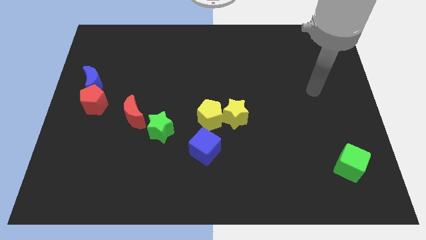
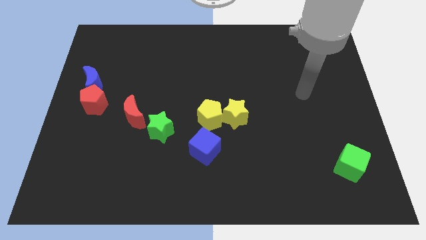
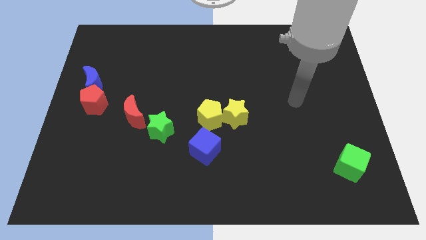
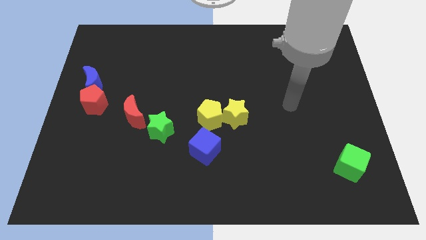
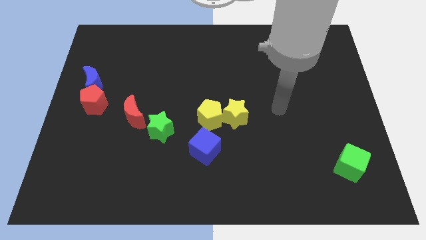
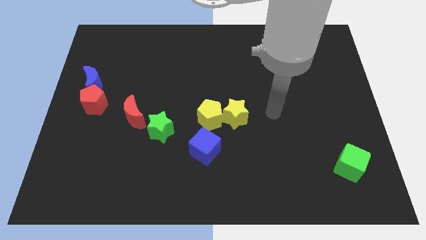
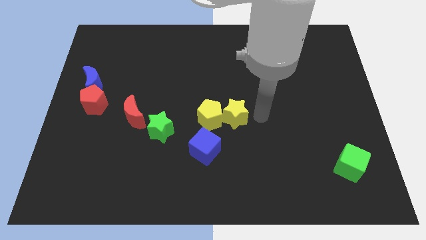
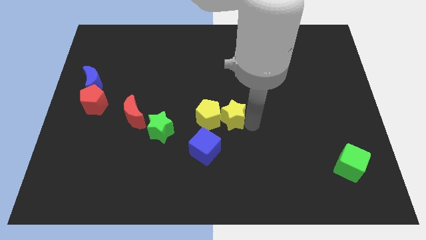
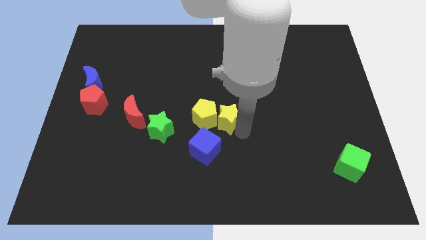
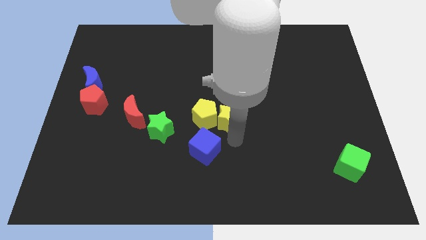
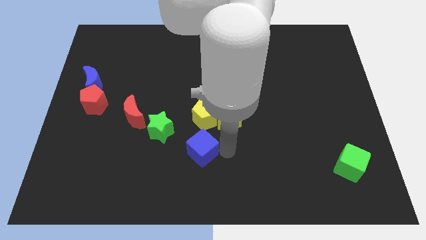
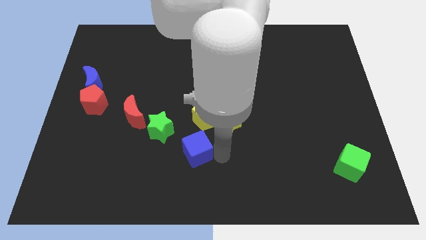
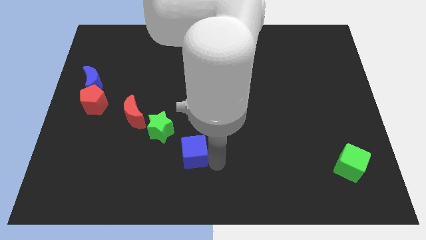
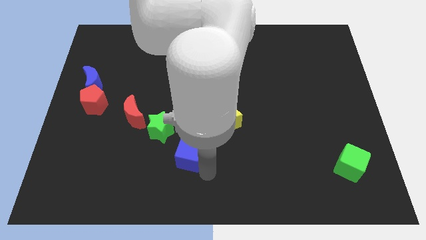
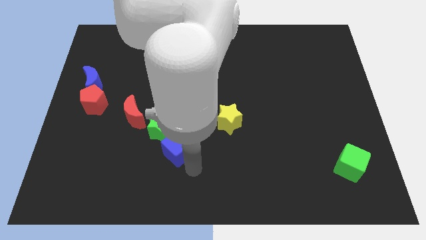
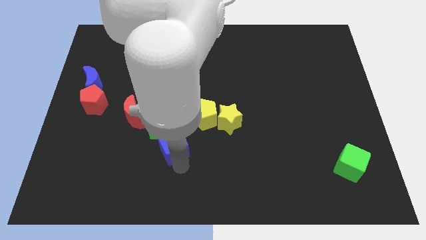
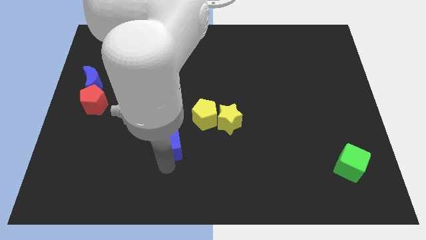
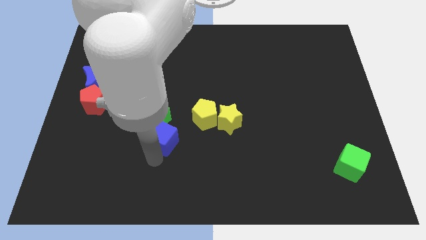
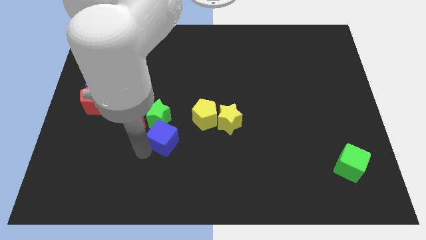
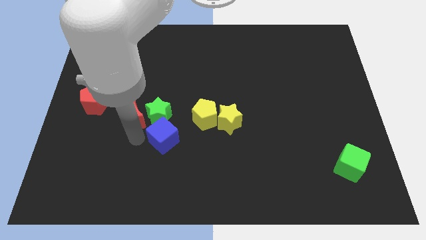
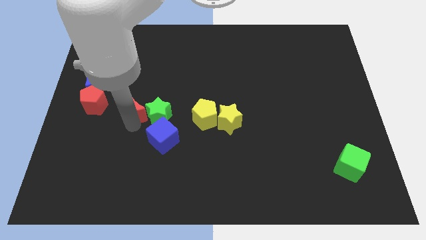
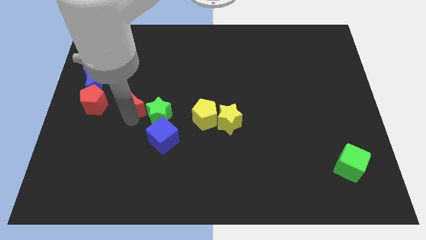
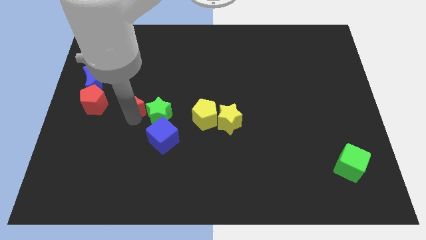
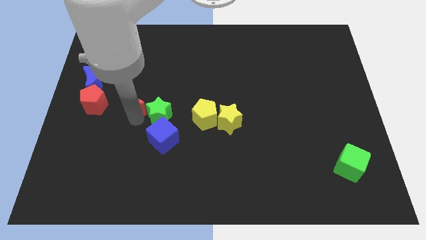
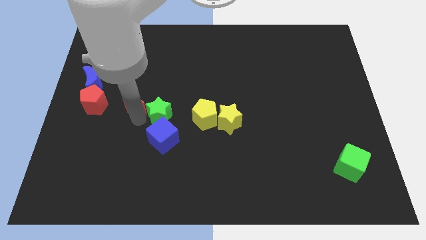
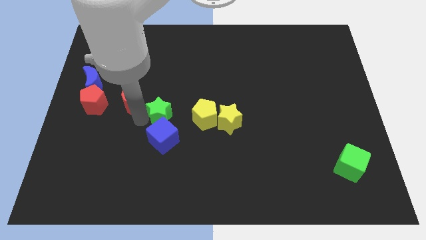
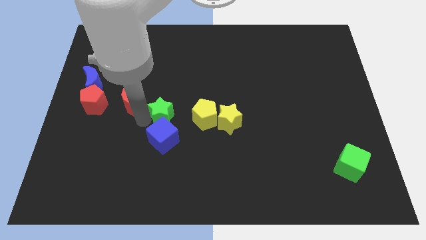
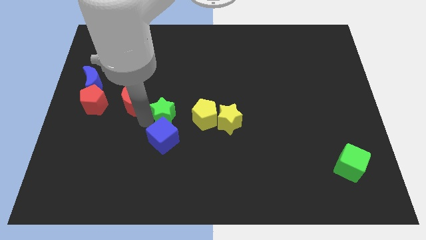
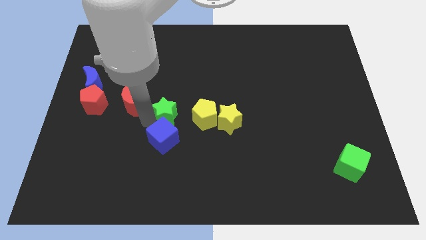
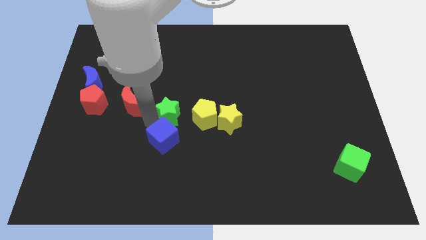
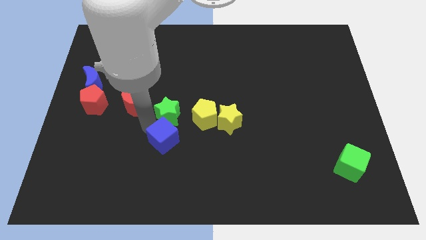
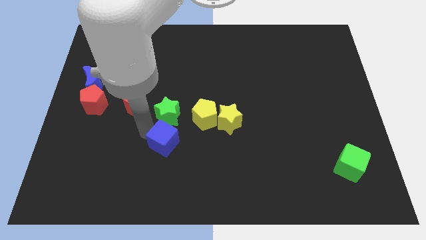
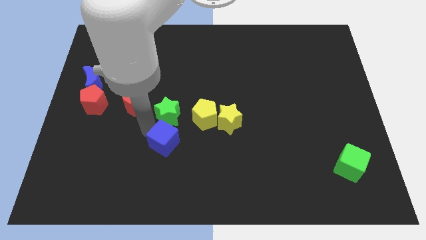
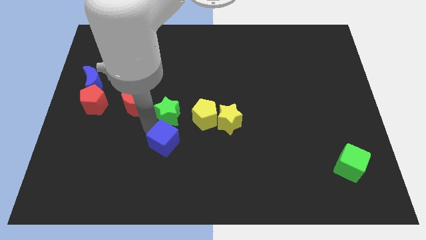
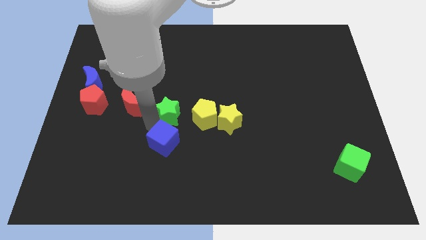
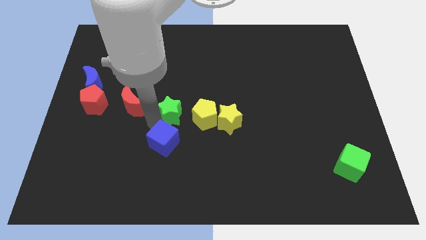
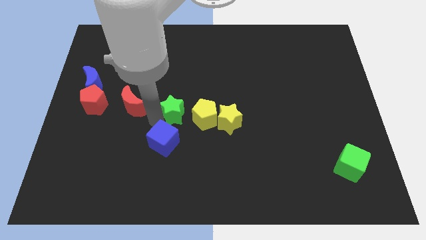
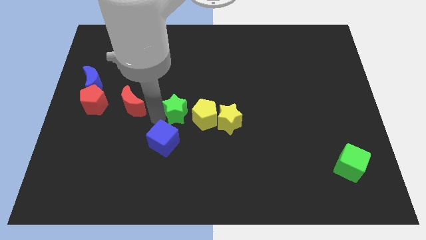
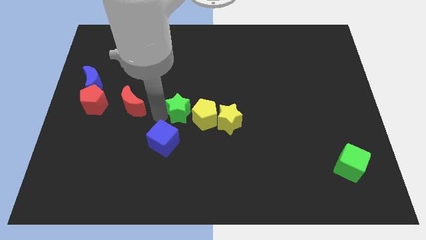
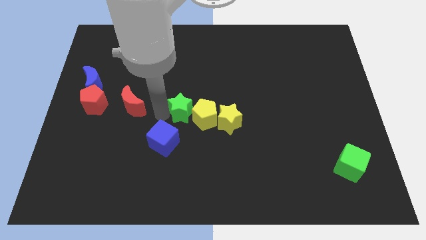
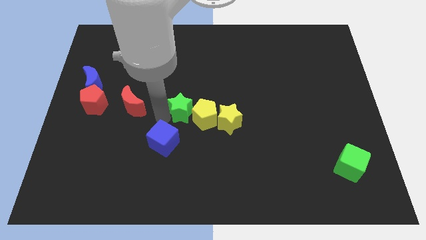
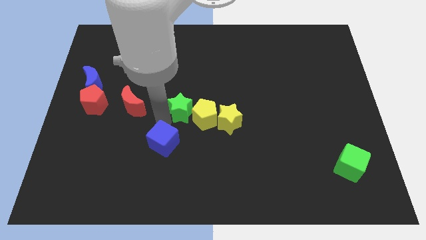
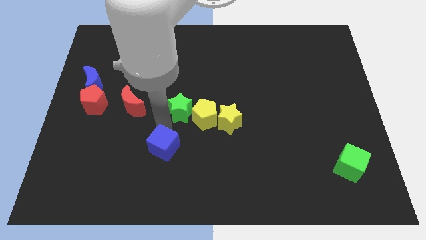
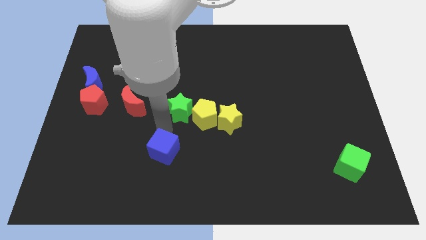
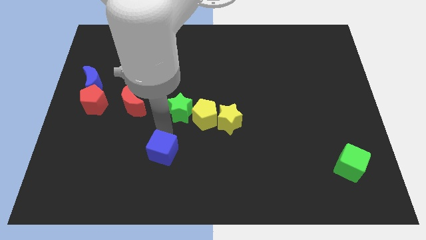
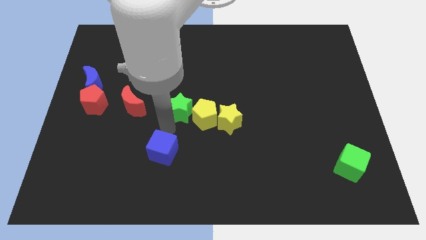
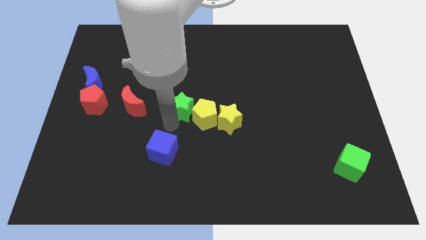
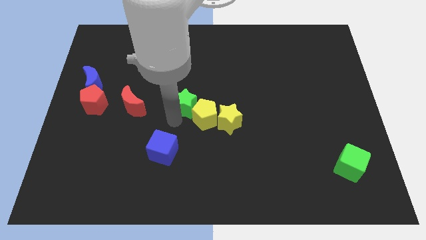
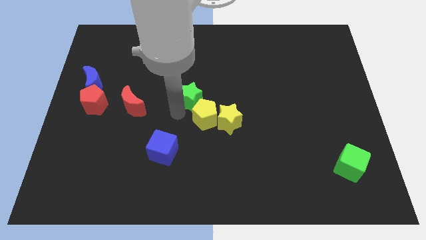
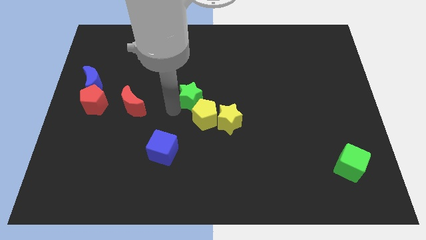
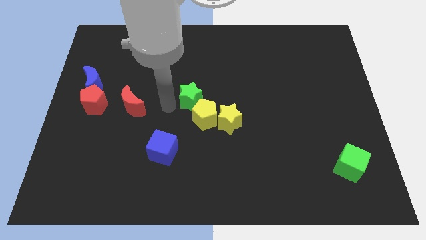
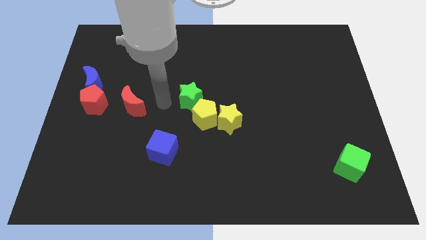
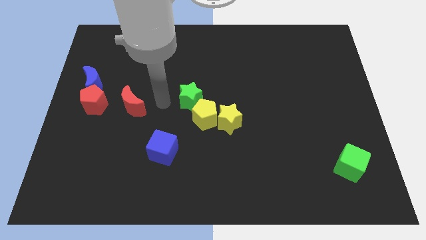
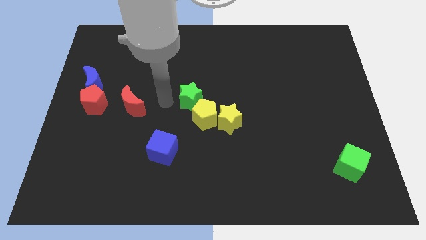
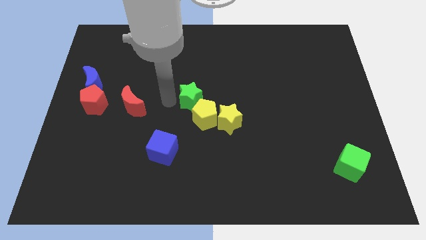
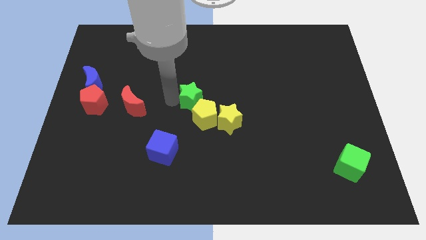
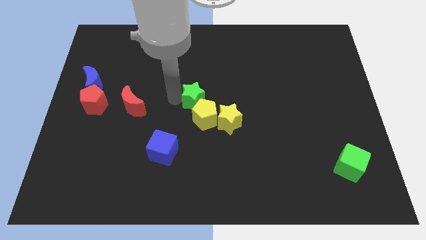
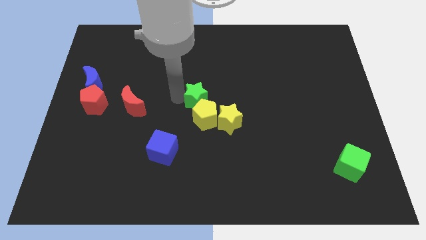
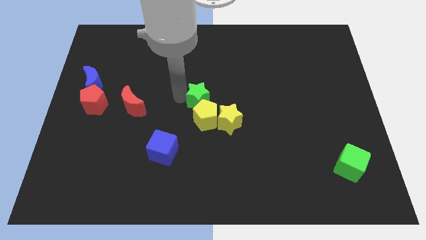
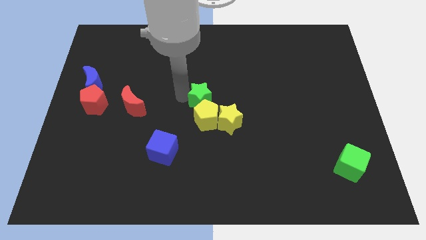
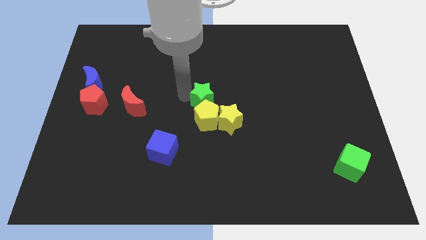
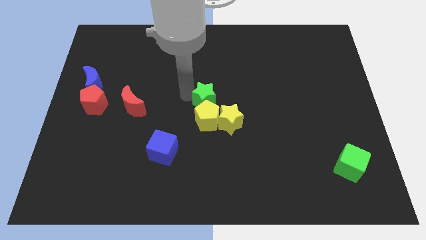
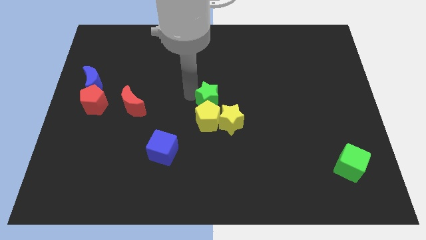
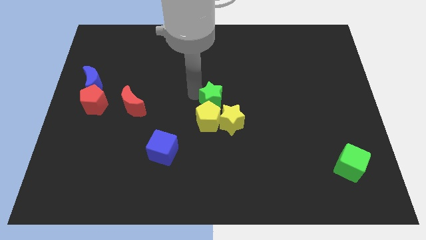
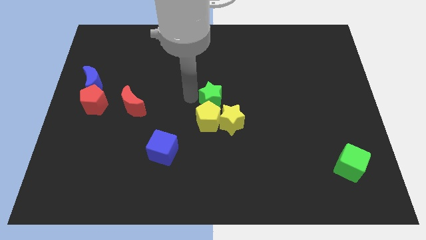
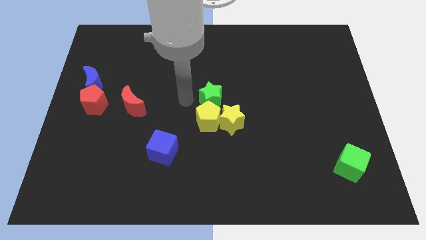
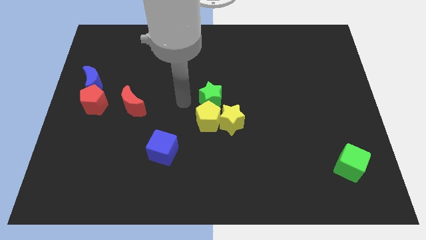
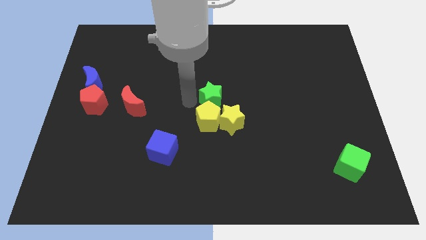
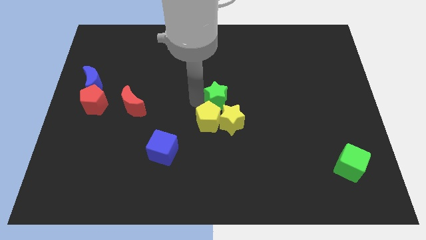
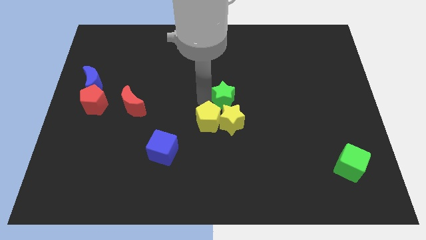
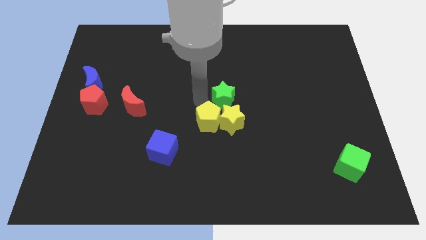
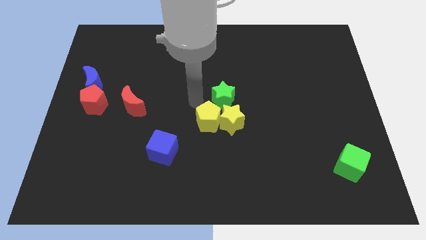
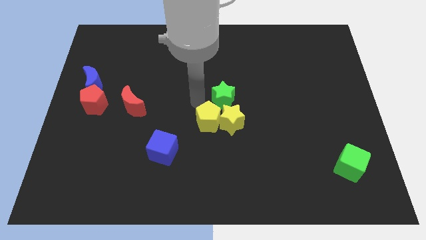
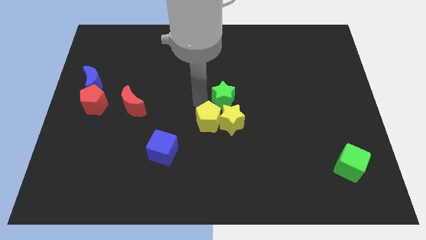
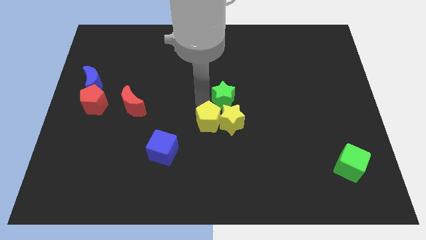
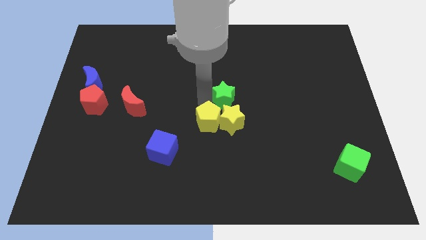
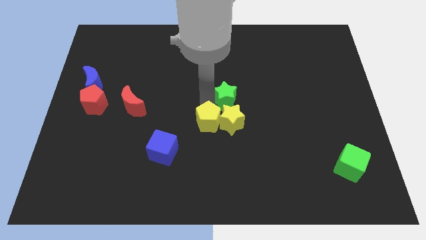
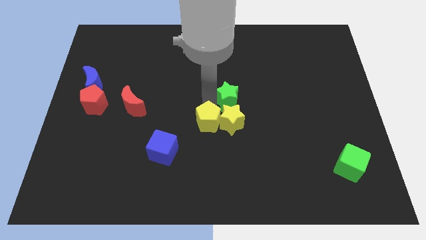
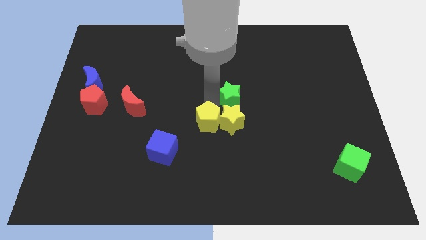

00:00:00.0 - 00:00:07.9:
slide the green star to the top right side of the yellow star
